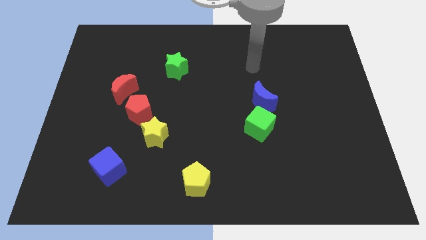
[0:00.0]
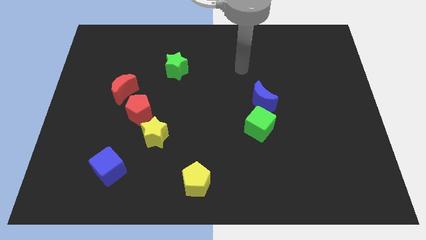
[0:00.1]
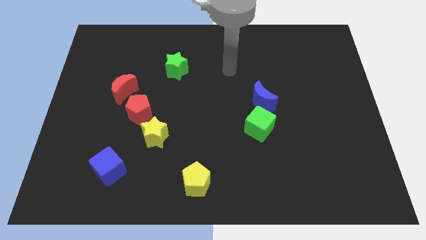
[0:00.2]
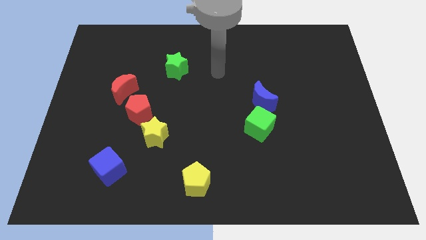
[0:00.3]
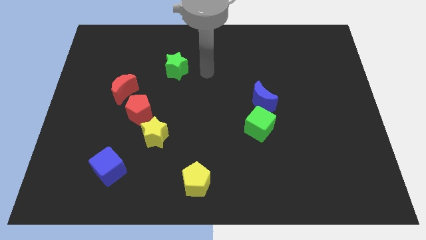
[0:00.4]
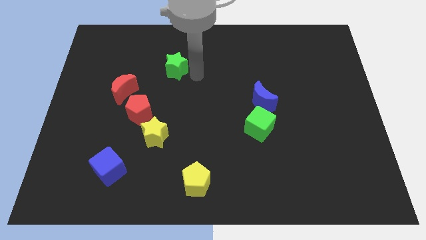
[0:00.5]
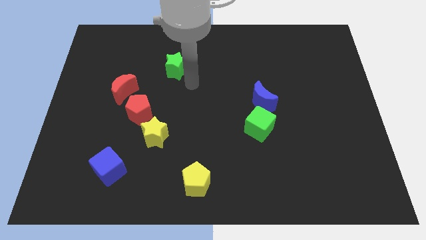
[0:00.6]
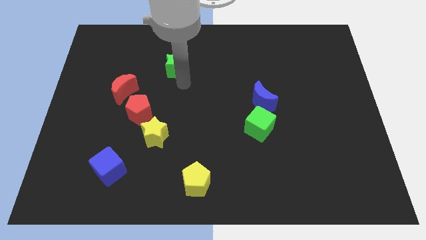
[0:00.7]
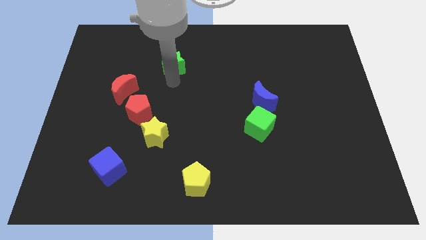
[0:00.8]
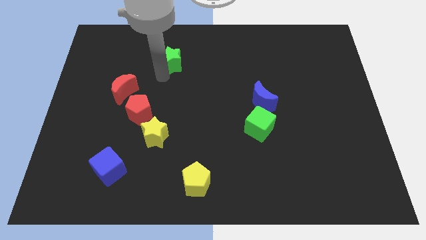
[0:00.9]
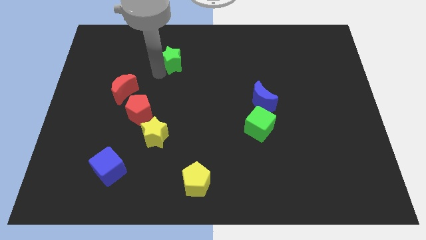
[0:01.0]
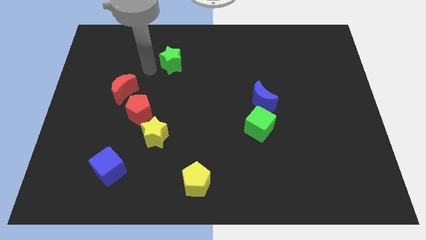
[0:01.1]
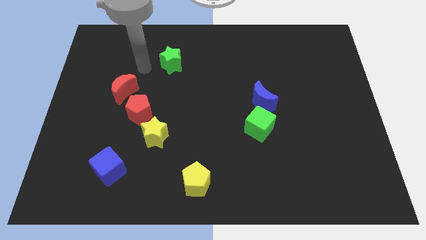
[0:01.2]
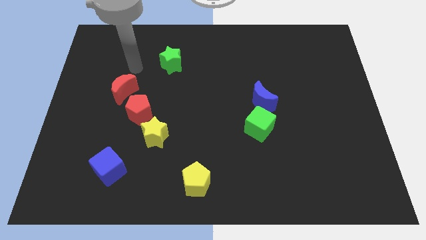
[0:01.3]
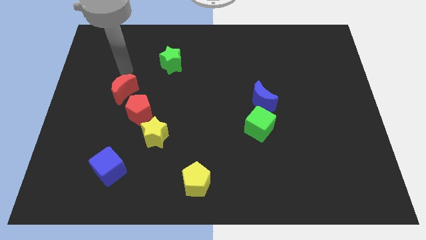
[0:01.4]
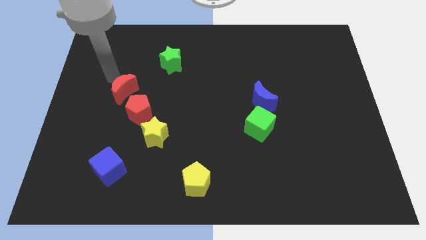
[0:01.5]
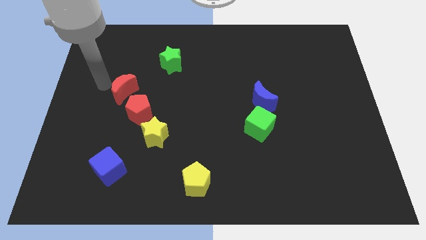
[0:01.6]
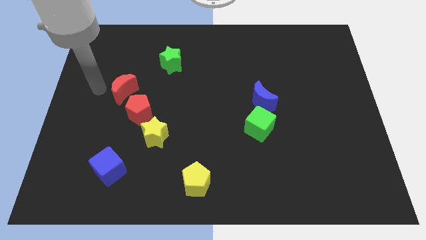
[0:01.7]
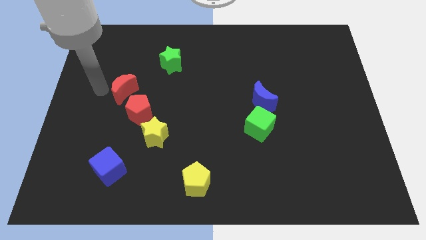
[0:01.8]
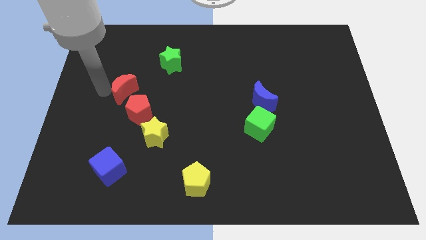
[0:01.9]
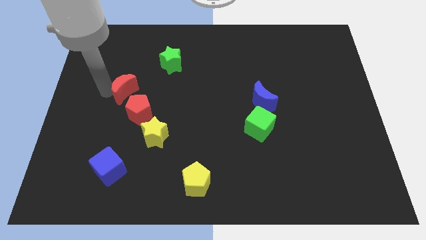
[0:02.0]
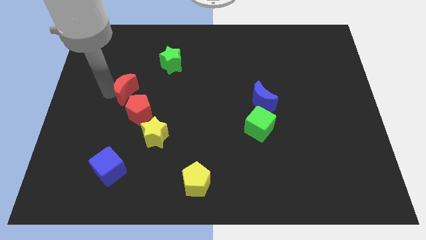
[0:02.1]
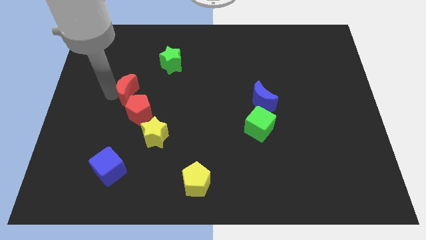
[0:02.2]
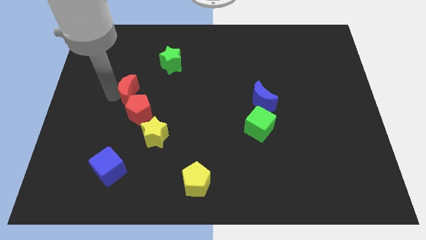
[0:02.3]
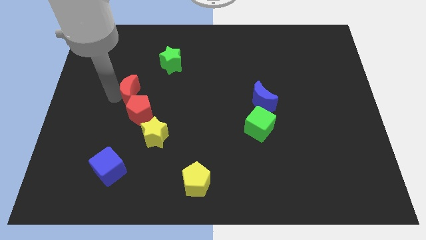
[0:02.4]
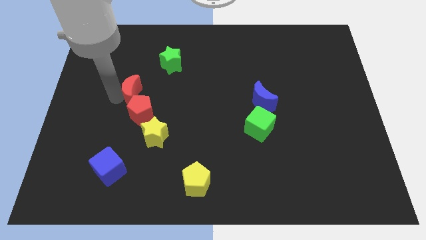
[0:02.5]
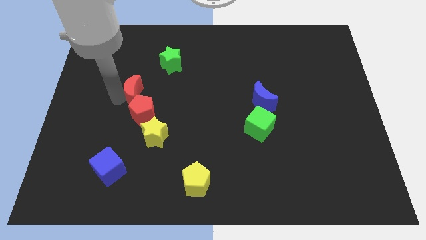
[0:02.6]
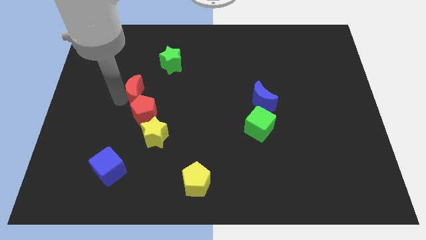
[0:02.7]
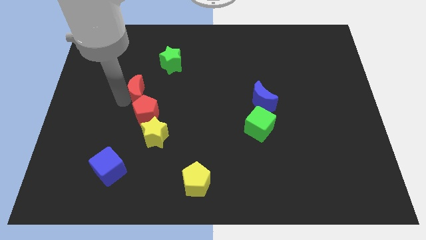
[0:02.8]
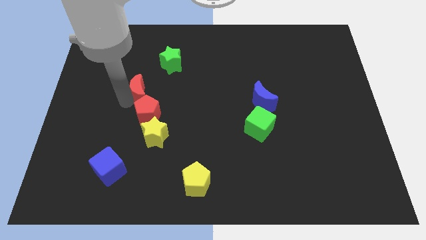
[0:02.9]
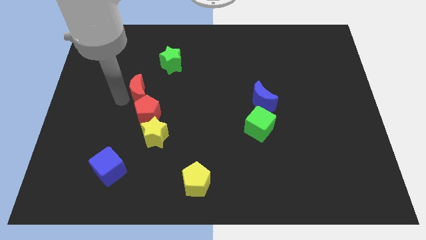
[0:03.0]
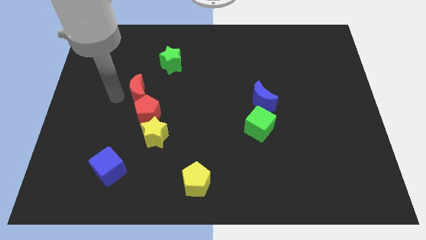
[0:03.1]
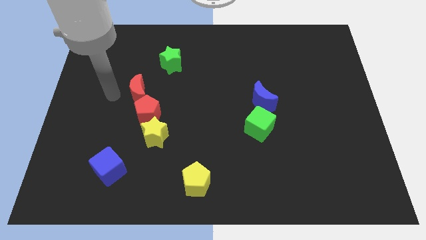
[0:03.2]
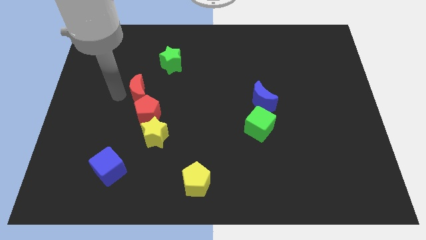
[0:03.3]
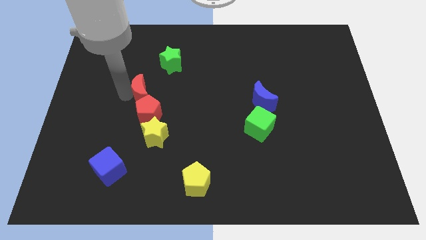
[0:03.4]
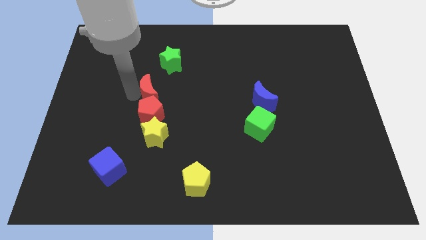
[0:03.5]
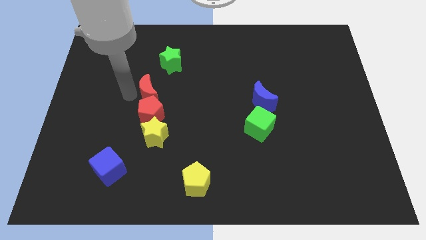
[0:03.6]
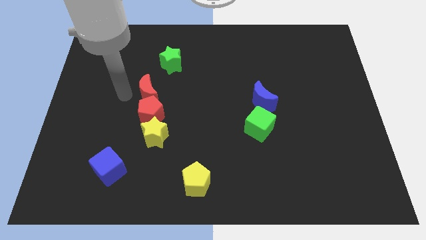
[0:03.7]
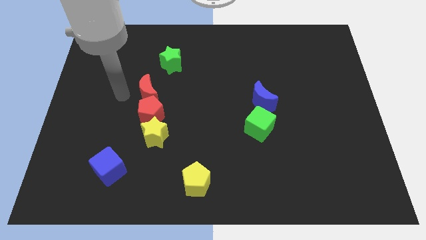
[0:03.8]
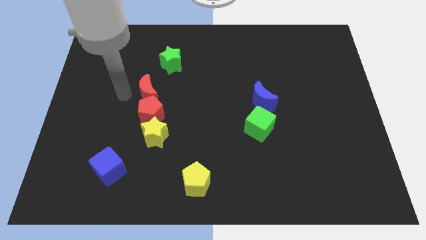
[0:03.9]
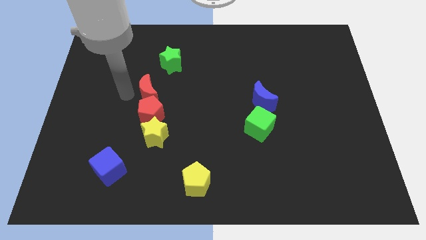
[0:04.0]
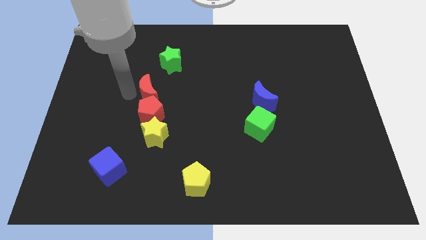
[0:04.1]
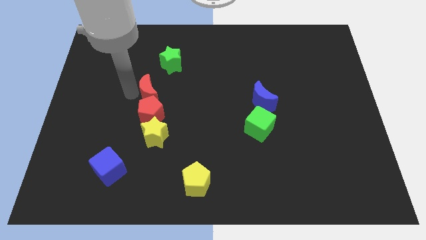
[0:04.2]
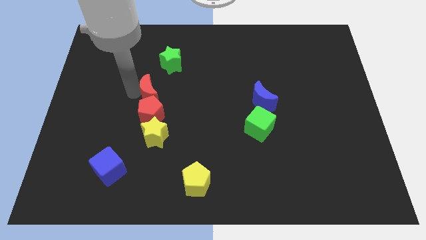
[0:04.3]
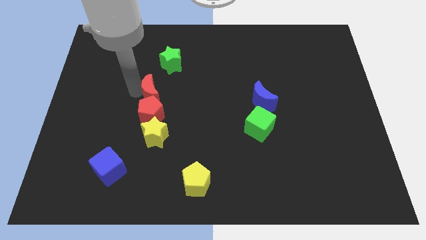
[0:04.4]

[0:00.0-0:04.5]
move the red moon right slightly

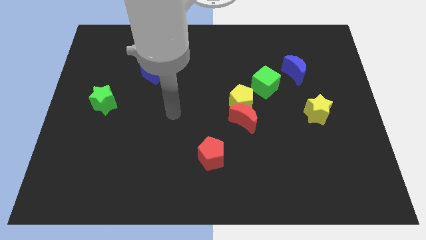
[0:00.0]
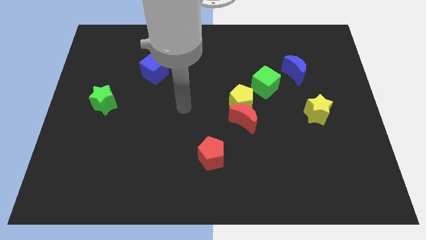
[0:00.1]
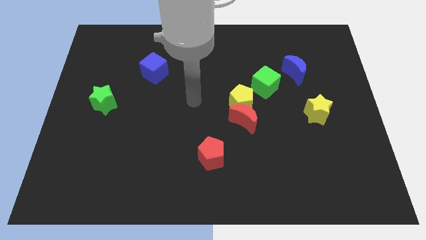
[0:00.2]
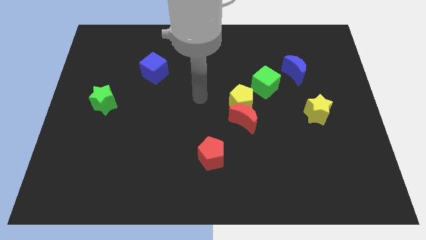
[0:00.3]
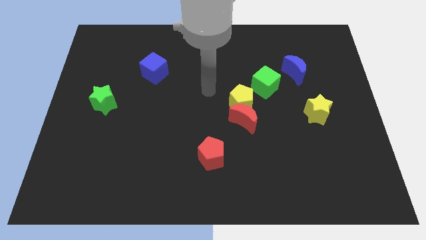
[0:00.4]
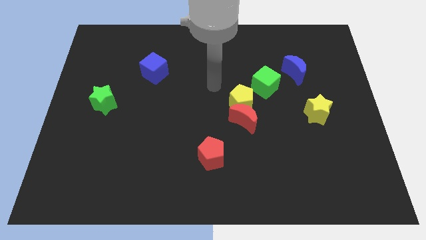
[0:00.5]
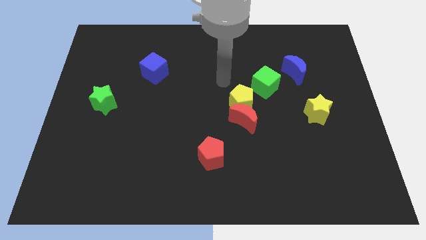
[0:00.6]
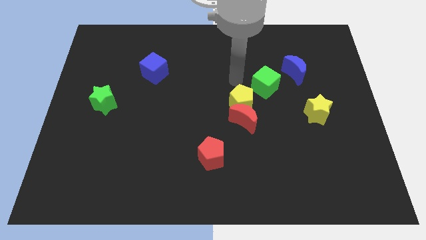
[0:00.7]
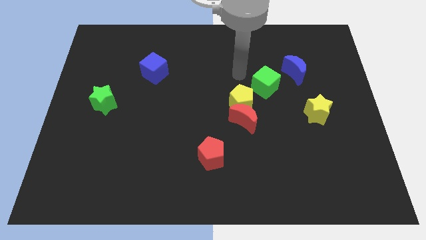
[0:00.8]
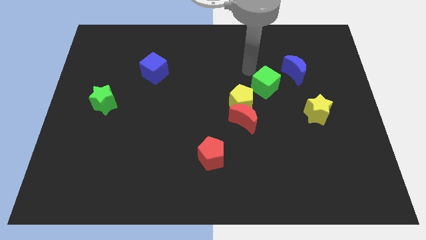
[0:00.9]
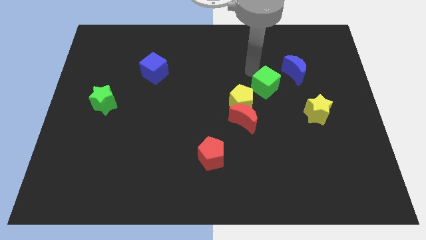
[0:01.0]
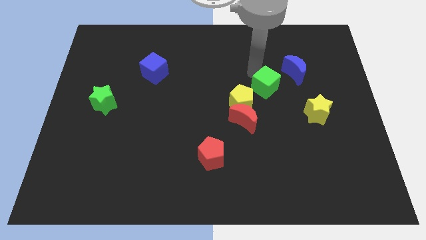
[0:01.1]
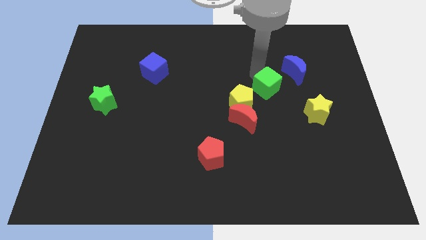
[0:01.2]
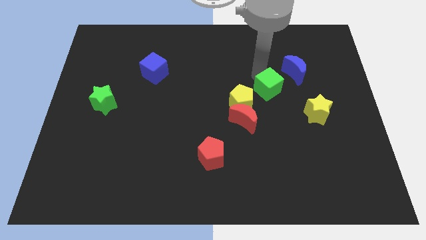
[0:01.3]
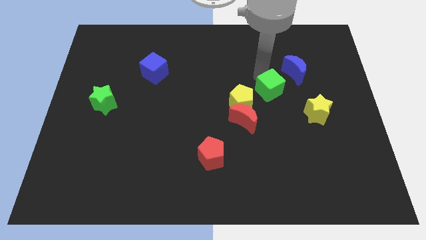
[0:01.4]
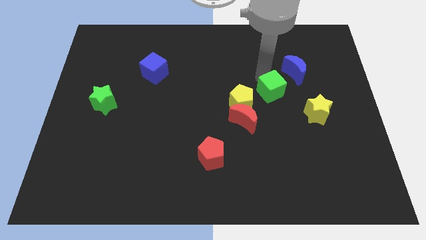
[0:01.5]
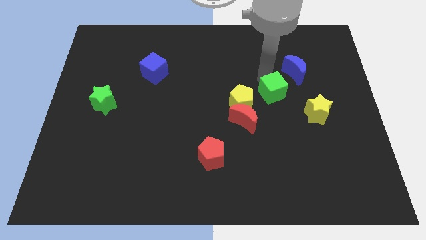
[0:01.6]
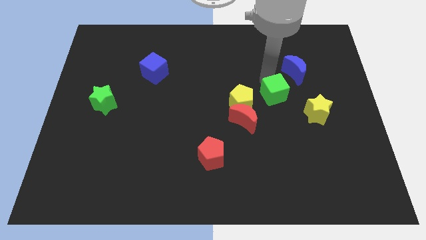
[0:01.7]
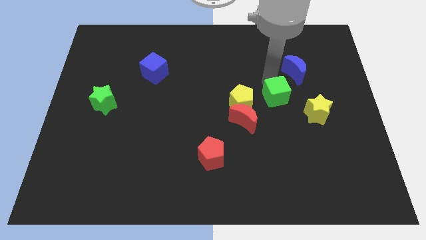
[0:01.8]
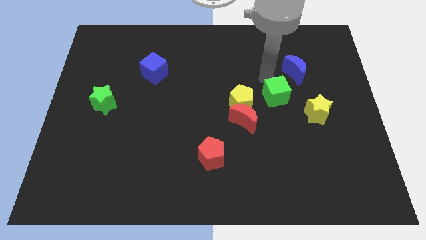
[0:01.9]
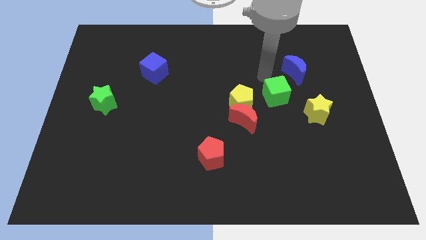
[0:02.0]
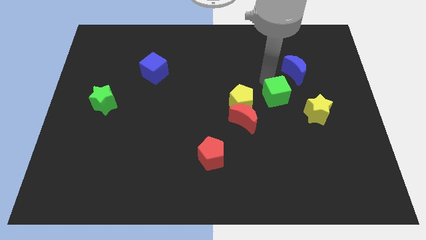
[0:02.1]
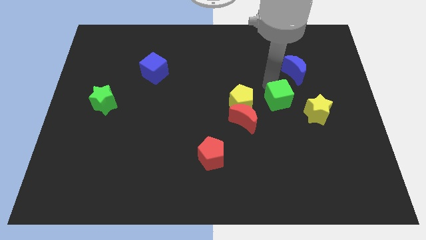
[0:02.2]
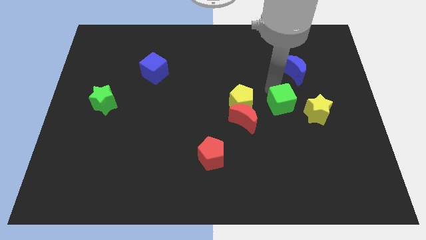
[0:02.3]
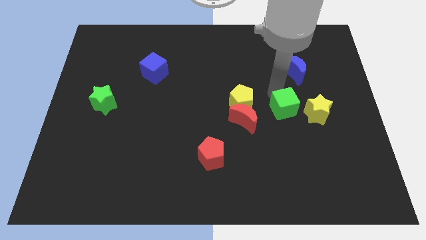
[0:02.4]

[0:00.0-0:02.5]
slide the green cube down and then to the right somewhat

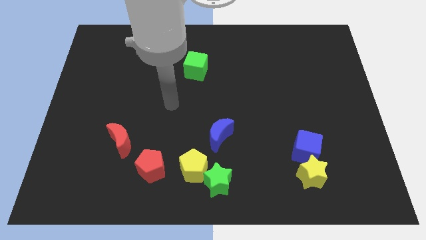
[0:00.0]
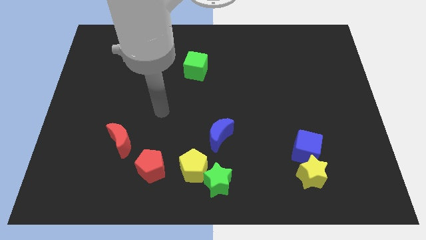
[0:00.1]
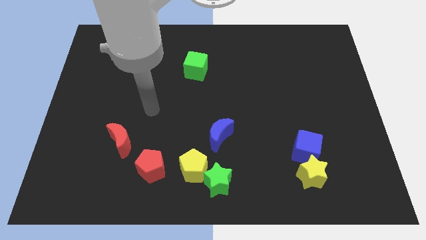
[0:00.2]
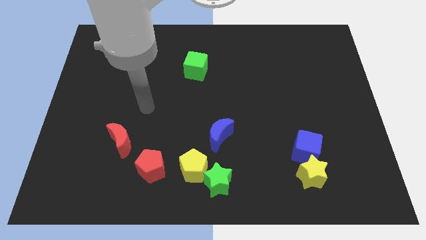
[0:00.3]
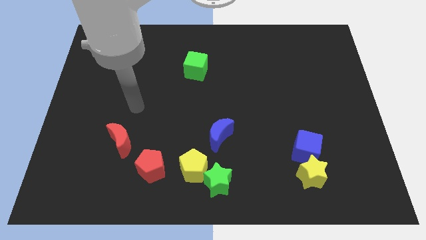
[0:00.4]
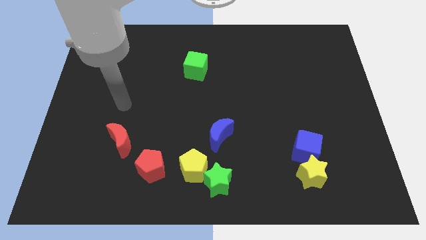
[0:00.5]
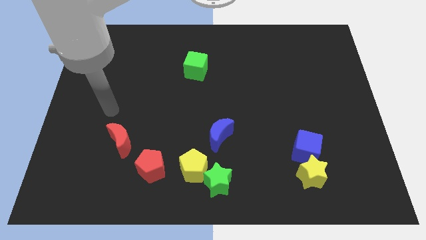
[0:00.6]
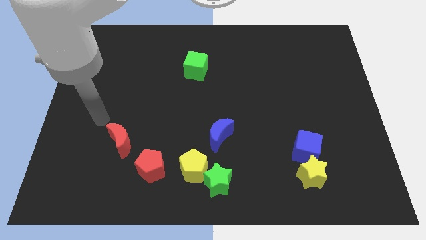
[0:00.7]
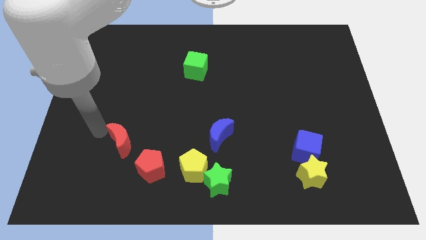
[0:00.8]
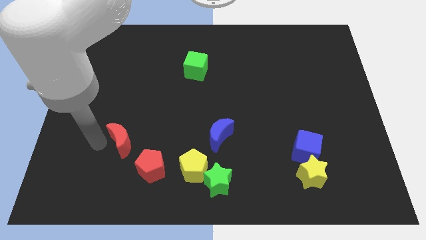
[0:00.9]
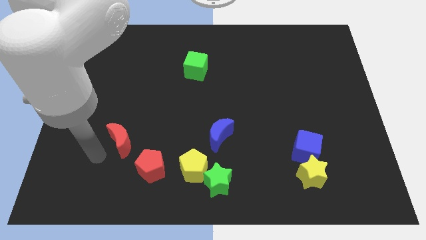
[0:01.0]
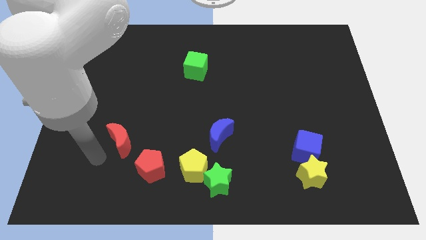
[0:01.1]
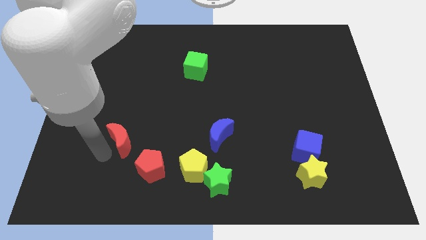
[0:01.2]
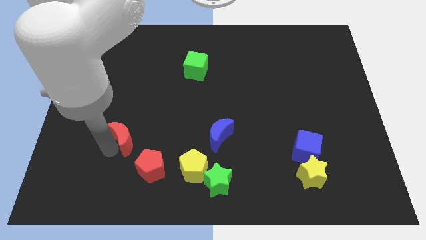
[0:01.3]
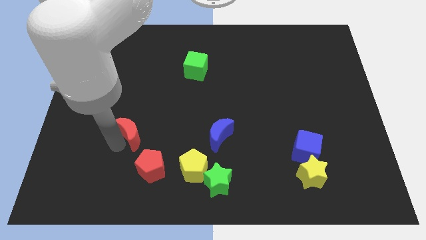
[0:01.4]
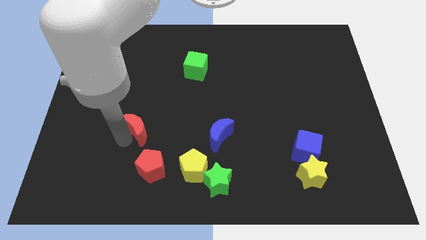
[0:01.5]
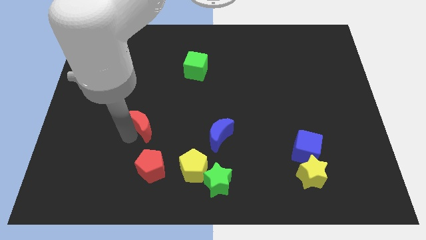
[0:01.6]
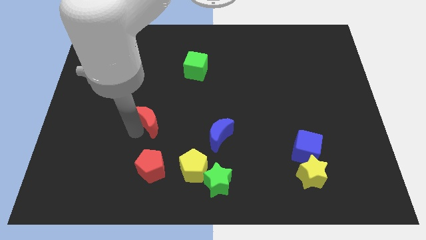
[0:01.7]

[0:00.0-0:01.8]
slightly move the red moon diagonally upwards and right
